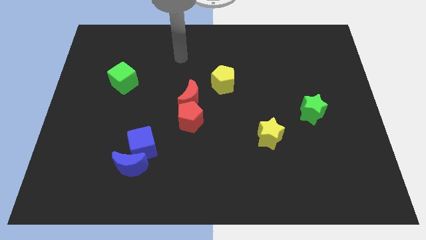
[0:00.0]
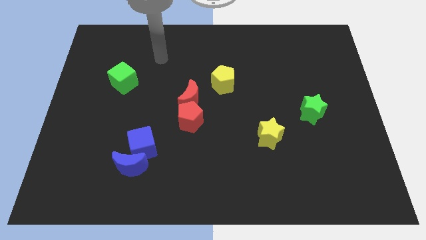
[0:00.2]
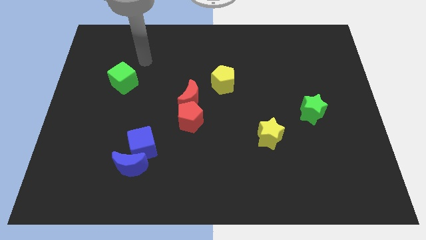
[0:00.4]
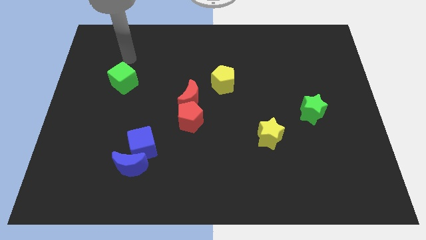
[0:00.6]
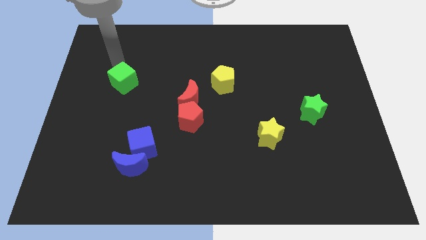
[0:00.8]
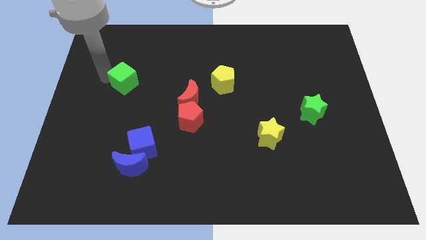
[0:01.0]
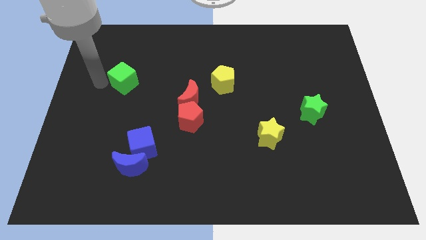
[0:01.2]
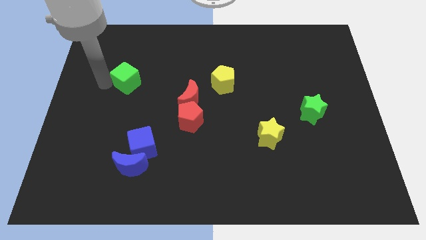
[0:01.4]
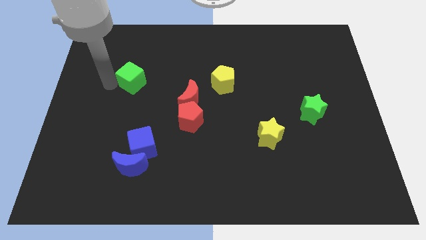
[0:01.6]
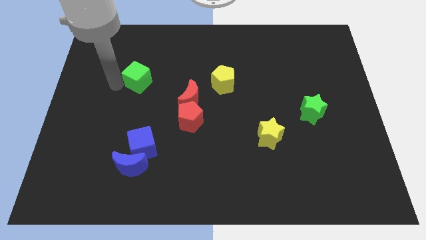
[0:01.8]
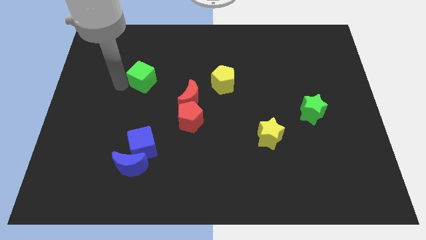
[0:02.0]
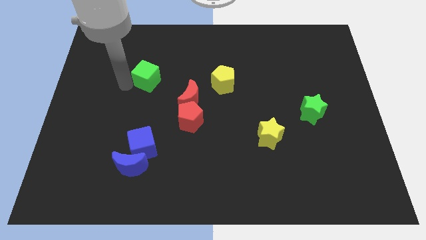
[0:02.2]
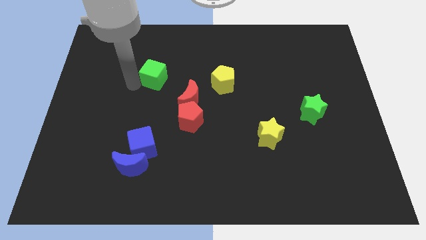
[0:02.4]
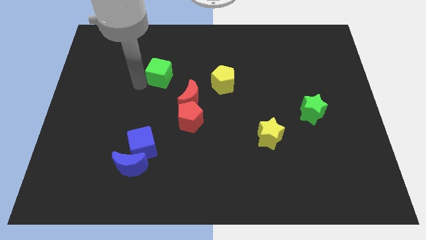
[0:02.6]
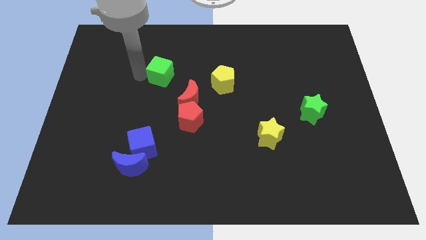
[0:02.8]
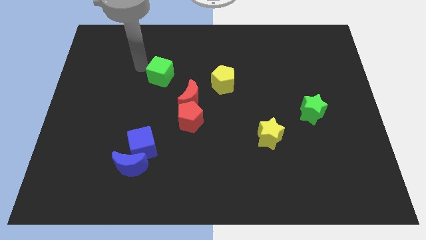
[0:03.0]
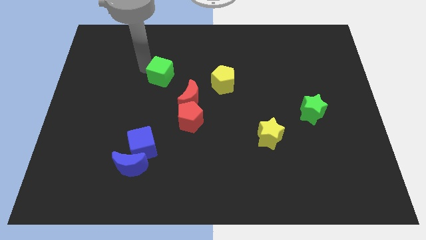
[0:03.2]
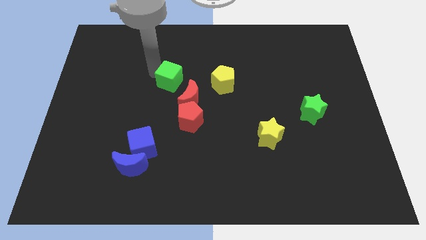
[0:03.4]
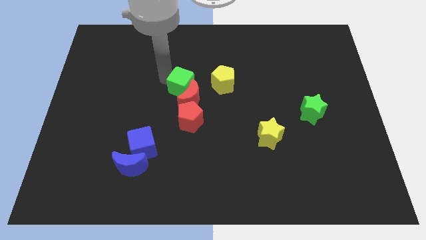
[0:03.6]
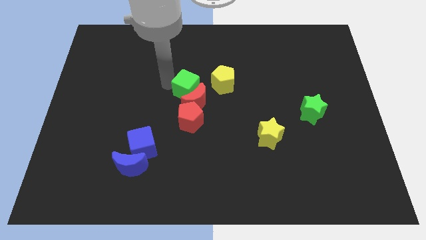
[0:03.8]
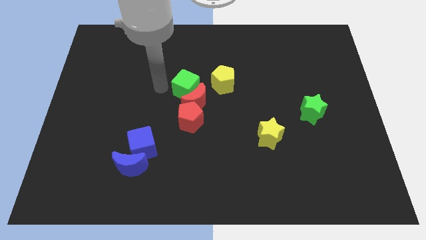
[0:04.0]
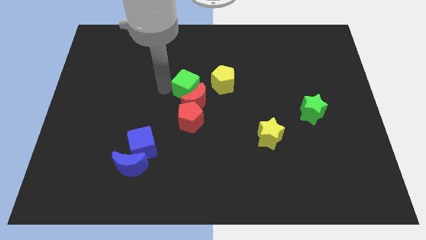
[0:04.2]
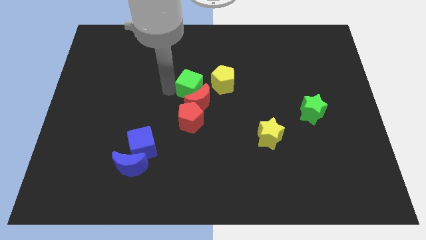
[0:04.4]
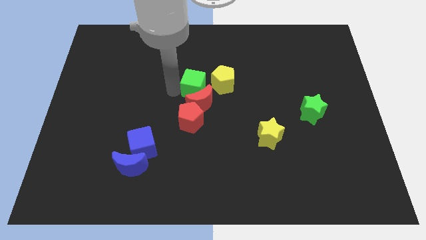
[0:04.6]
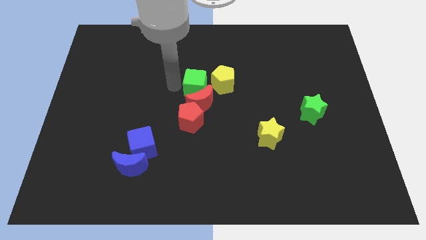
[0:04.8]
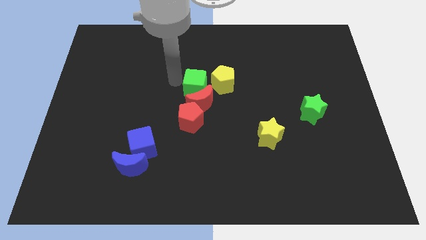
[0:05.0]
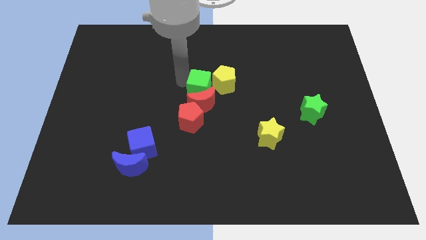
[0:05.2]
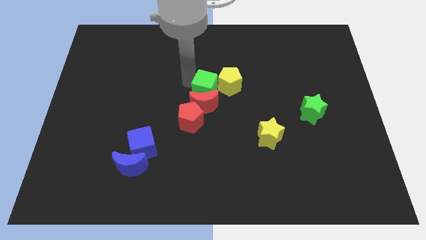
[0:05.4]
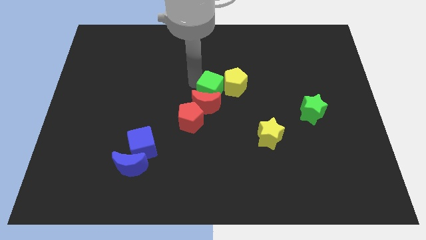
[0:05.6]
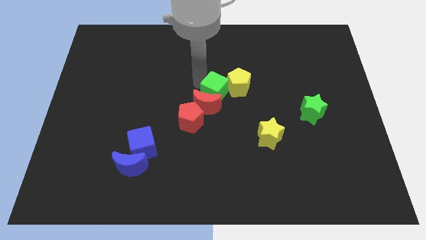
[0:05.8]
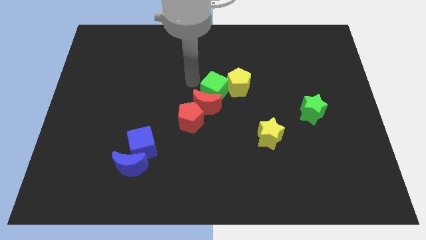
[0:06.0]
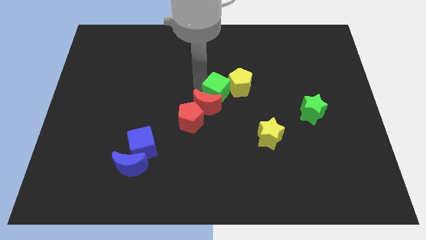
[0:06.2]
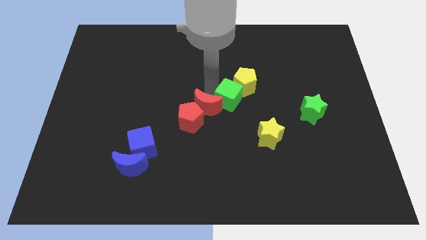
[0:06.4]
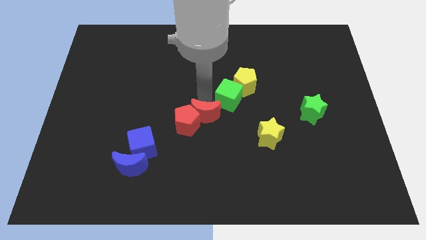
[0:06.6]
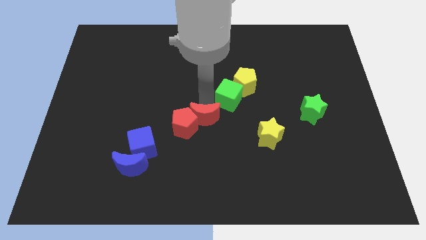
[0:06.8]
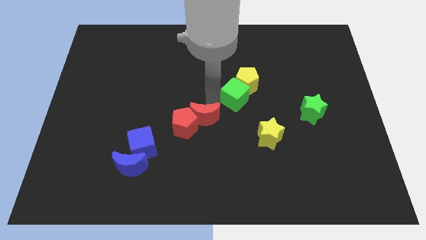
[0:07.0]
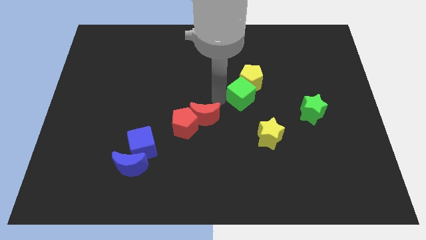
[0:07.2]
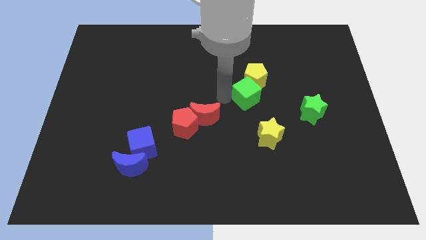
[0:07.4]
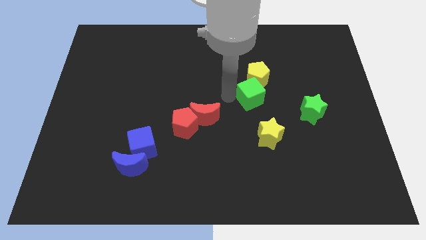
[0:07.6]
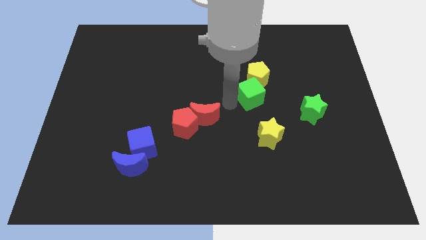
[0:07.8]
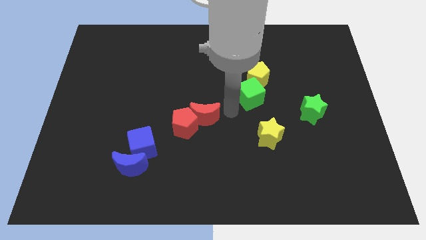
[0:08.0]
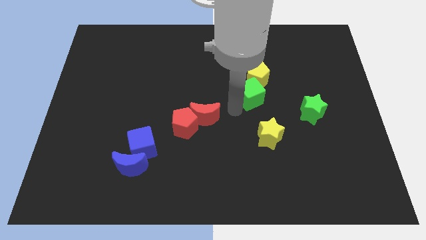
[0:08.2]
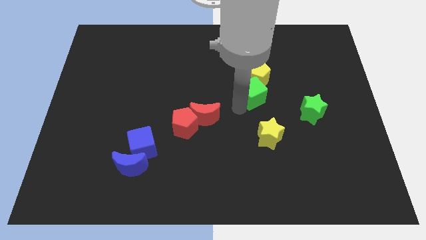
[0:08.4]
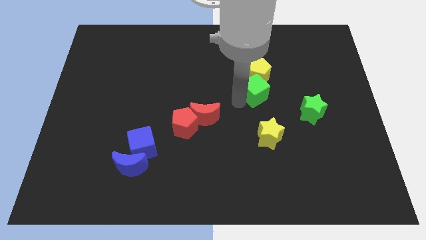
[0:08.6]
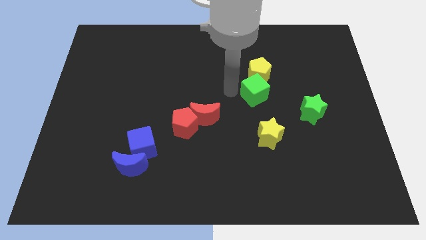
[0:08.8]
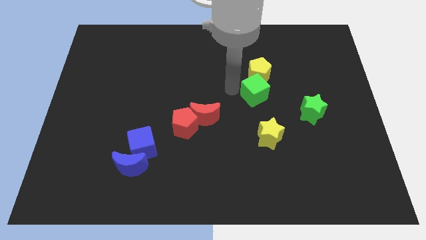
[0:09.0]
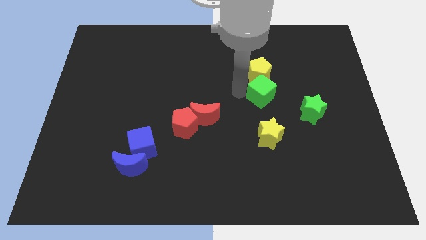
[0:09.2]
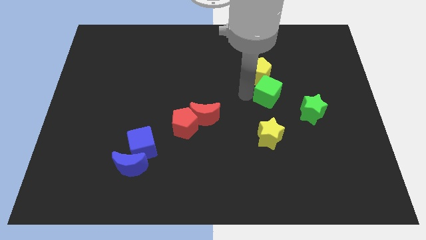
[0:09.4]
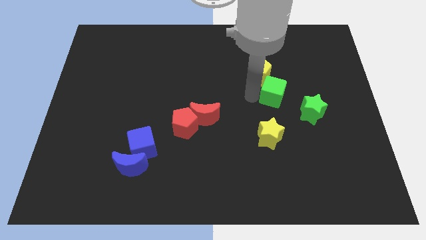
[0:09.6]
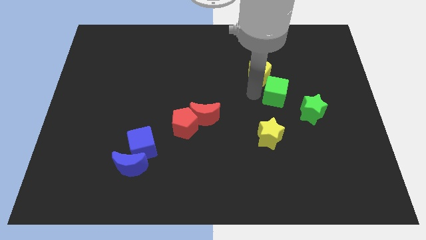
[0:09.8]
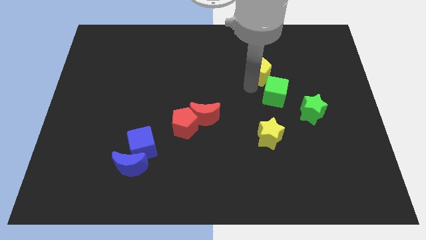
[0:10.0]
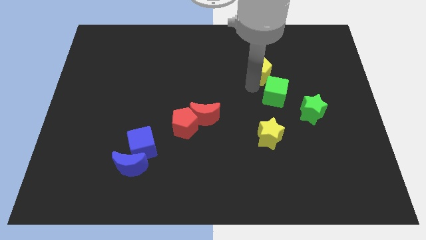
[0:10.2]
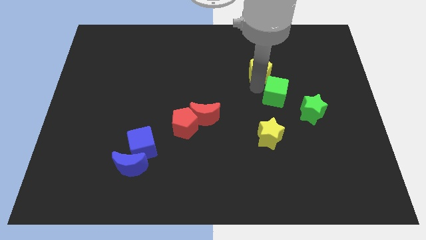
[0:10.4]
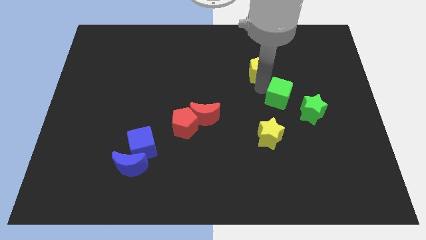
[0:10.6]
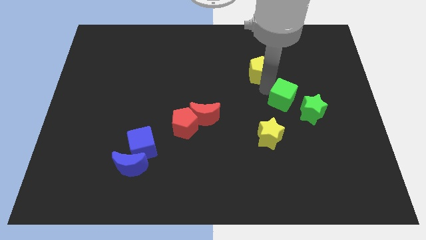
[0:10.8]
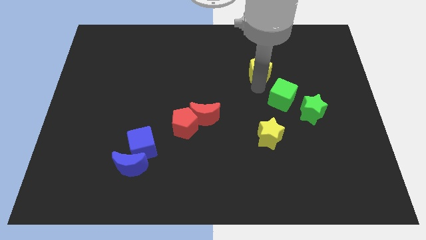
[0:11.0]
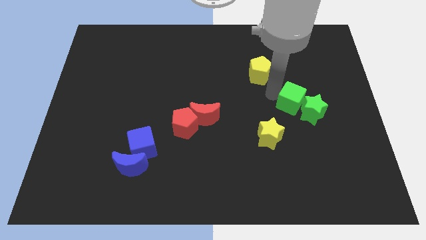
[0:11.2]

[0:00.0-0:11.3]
put the green cube towards the green star
